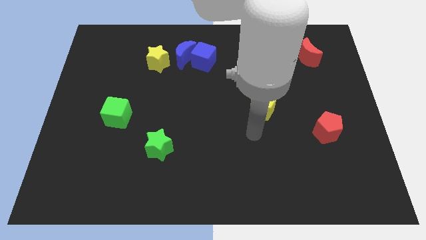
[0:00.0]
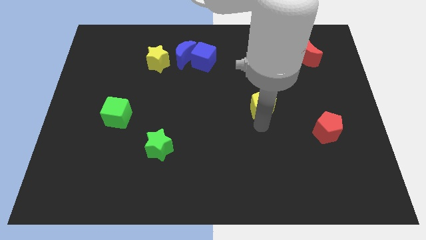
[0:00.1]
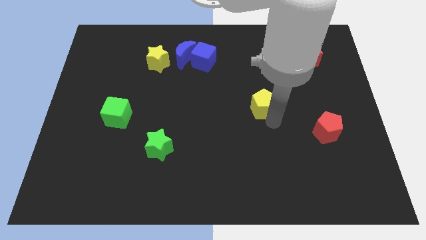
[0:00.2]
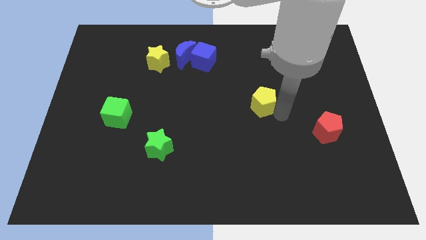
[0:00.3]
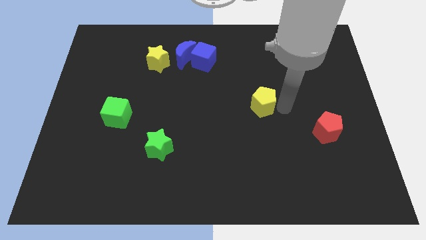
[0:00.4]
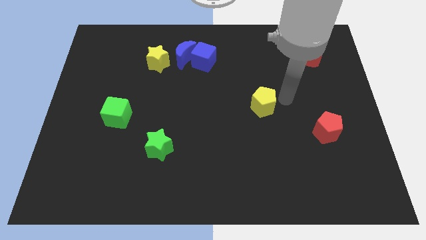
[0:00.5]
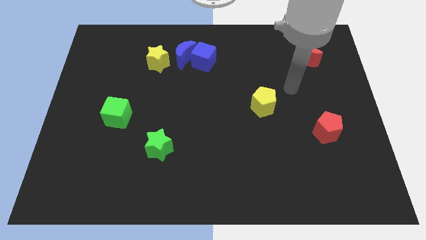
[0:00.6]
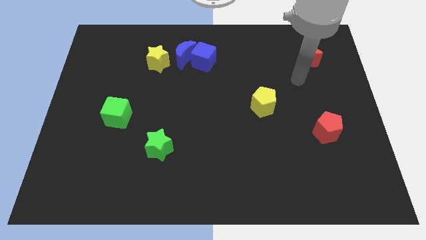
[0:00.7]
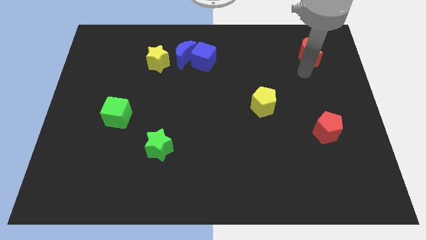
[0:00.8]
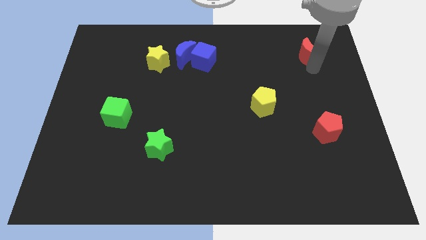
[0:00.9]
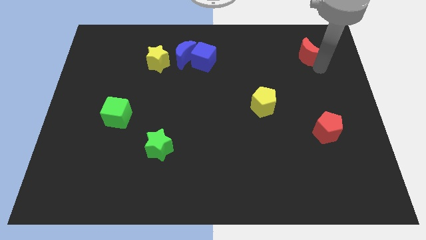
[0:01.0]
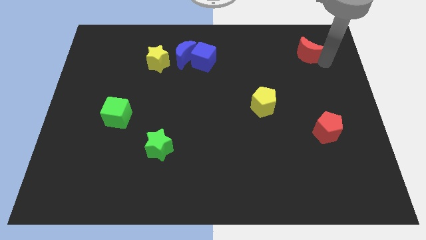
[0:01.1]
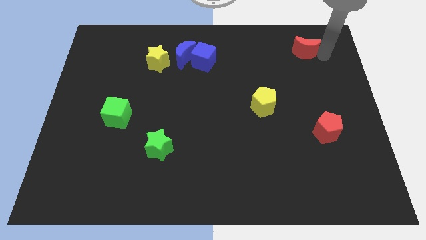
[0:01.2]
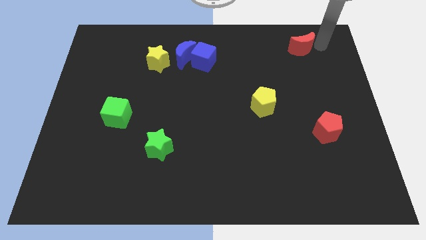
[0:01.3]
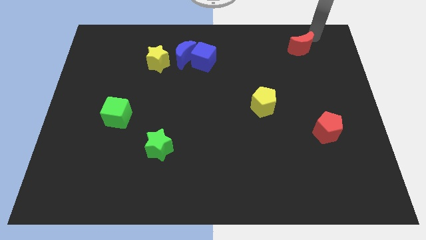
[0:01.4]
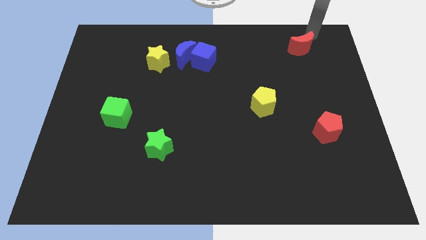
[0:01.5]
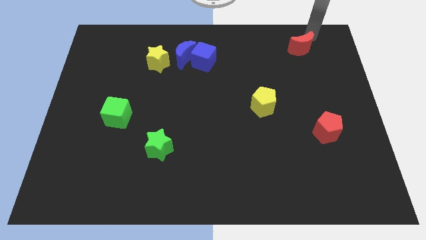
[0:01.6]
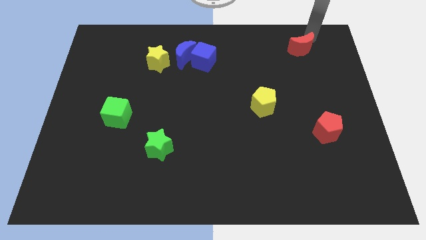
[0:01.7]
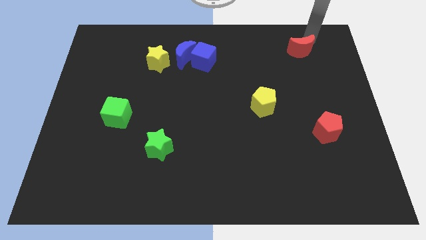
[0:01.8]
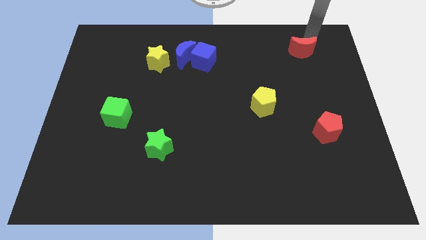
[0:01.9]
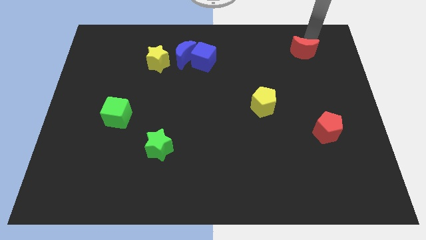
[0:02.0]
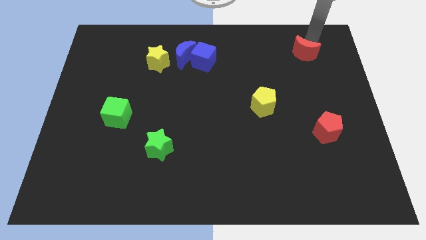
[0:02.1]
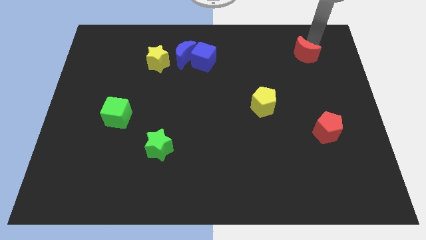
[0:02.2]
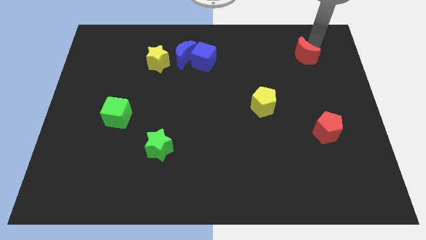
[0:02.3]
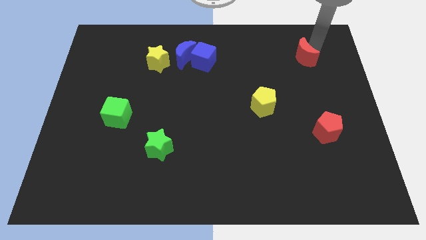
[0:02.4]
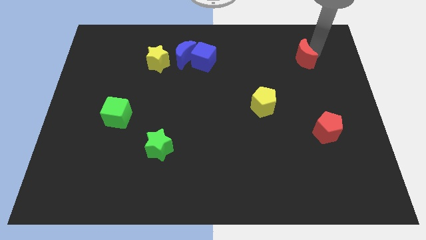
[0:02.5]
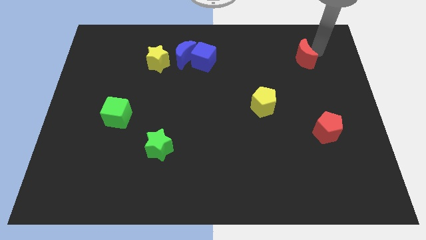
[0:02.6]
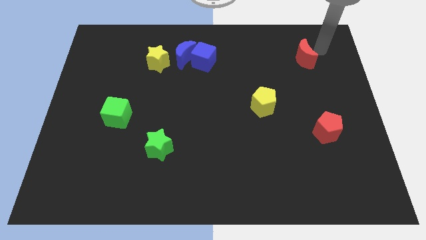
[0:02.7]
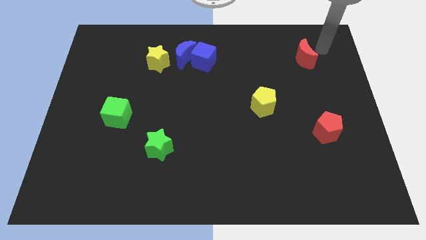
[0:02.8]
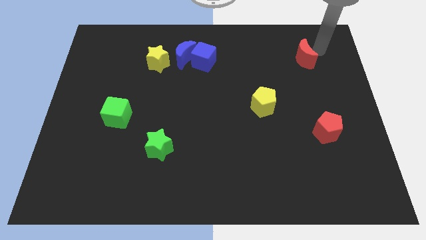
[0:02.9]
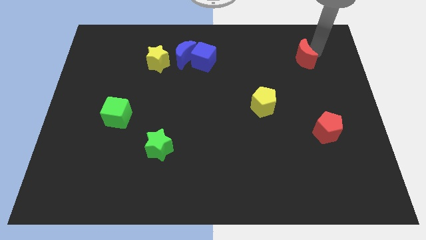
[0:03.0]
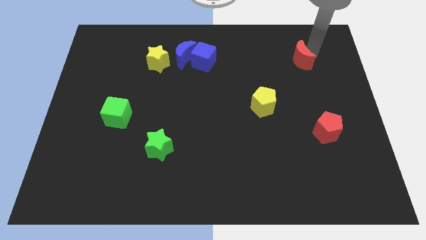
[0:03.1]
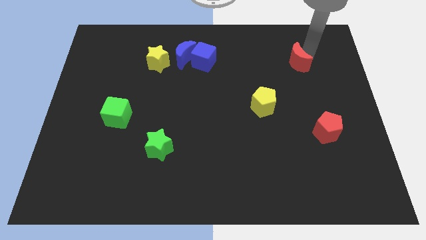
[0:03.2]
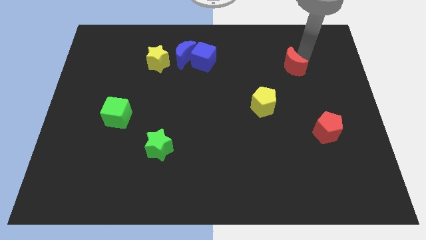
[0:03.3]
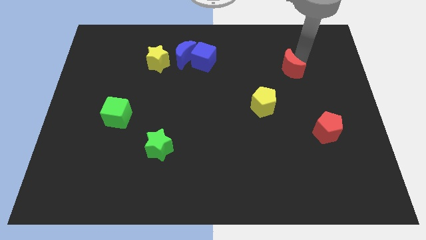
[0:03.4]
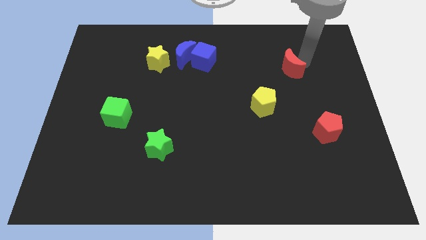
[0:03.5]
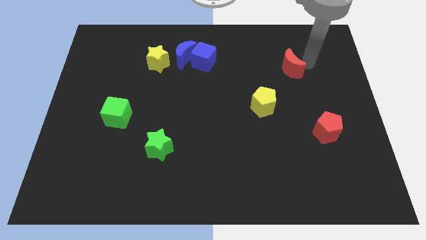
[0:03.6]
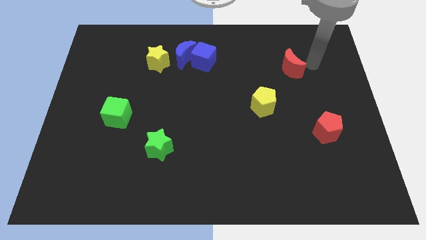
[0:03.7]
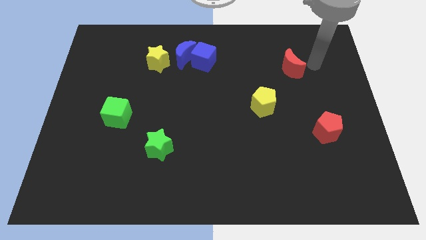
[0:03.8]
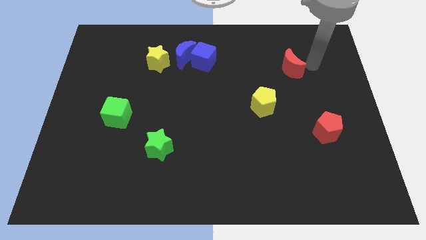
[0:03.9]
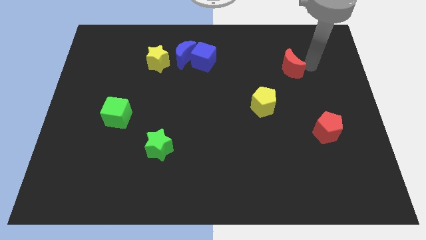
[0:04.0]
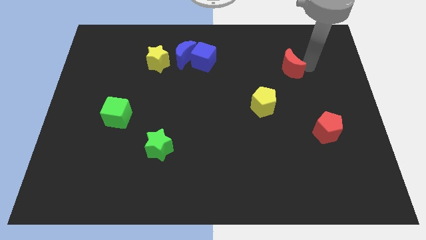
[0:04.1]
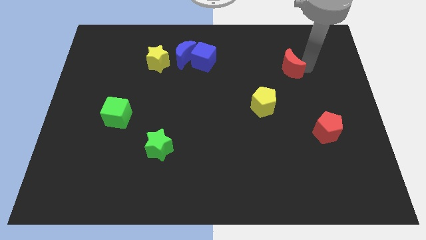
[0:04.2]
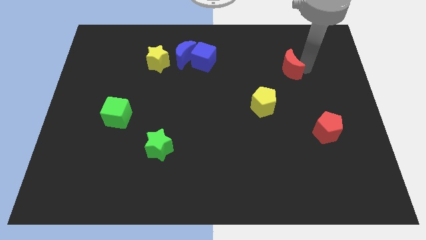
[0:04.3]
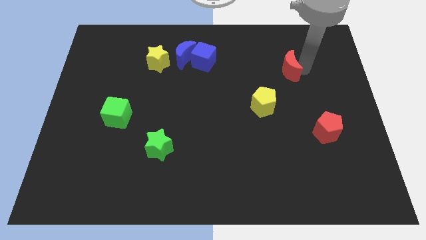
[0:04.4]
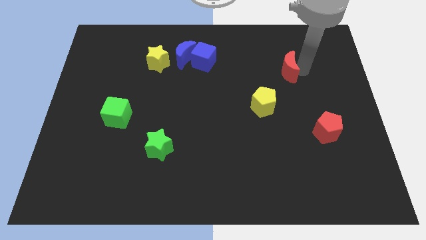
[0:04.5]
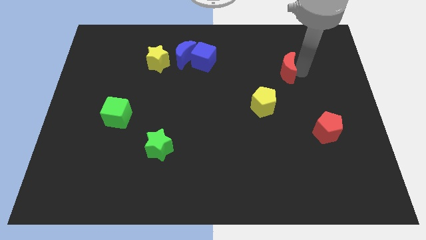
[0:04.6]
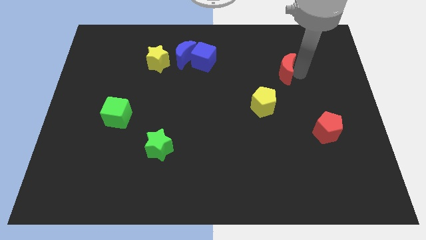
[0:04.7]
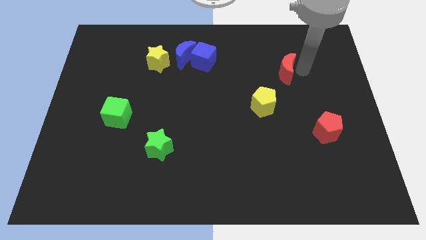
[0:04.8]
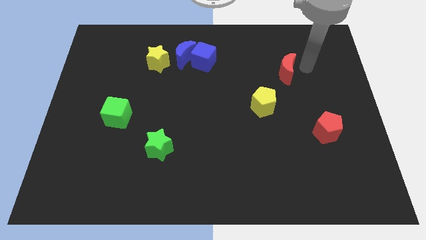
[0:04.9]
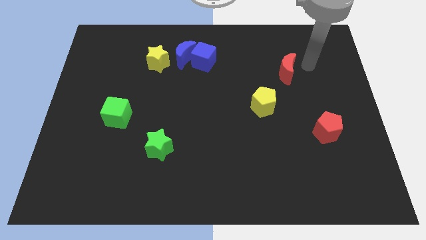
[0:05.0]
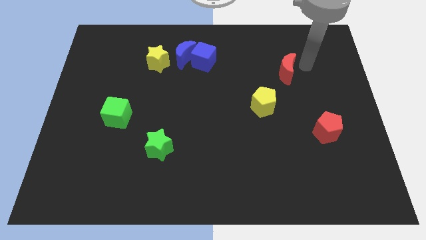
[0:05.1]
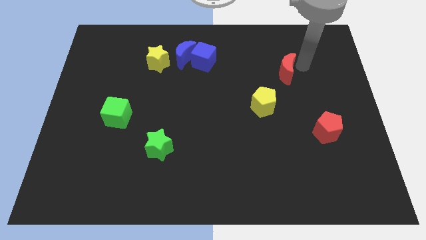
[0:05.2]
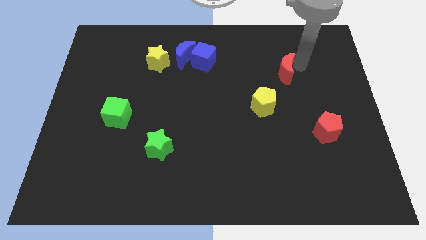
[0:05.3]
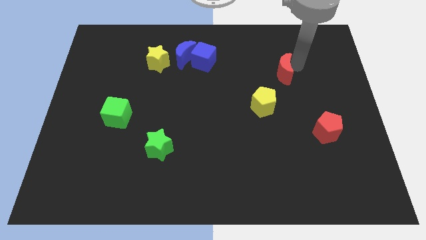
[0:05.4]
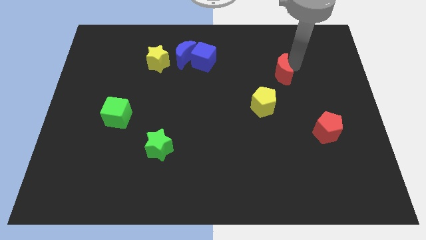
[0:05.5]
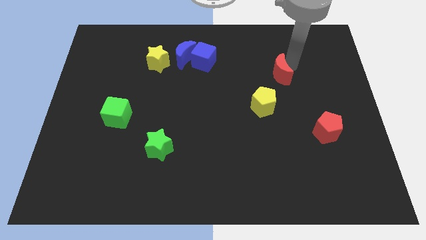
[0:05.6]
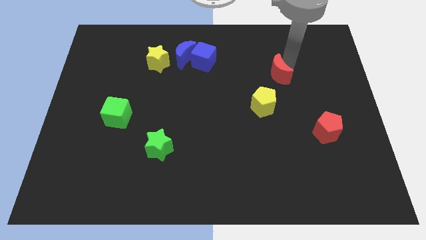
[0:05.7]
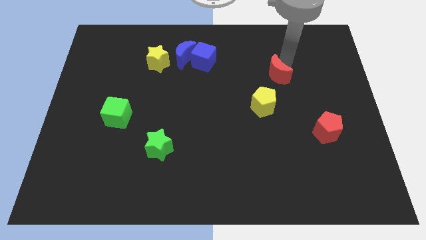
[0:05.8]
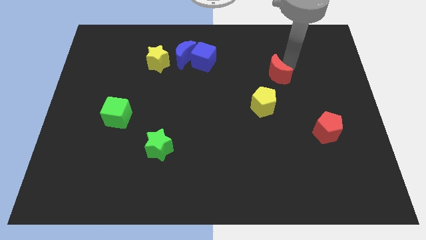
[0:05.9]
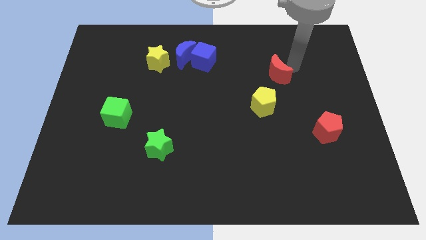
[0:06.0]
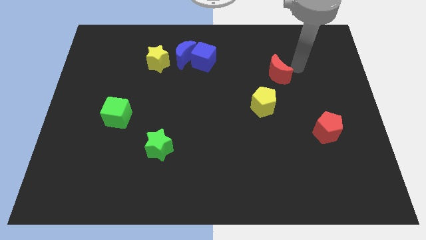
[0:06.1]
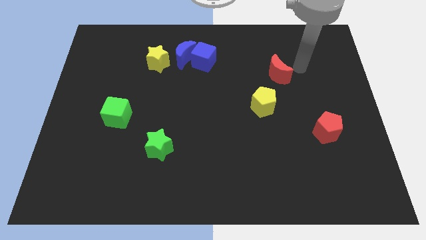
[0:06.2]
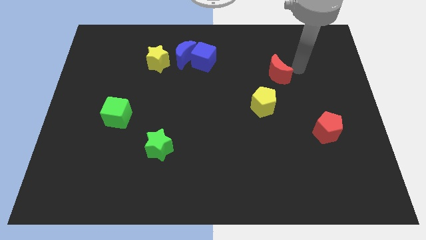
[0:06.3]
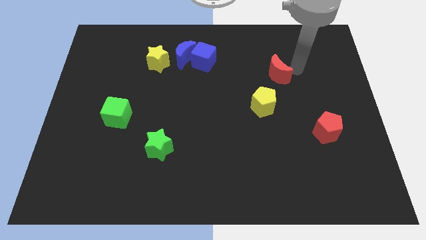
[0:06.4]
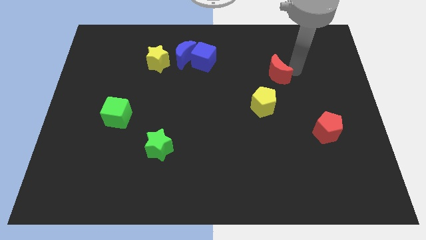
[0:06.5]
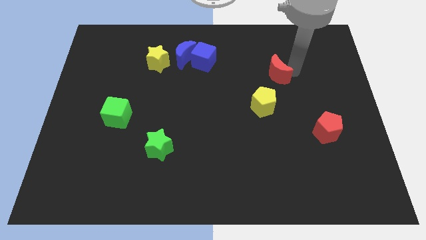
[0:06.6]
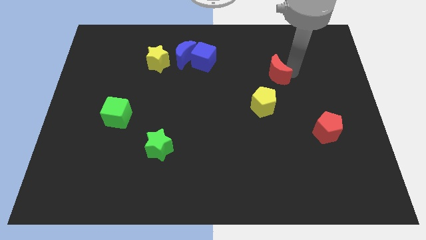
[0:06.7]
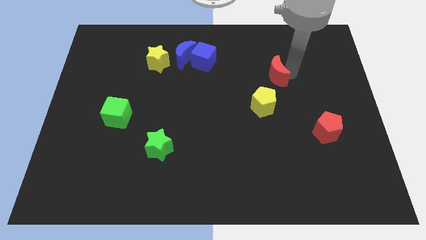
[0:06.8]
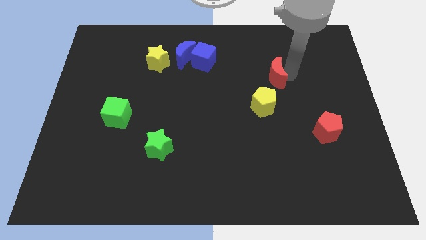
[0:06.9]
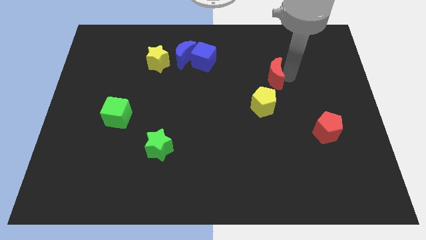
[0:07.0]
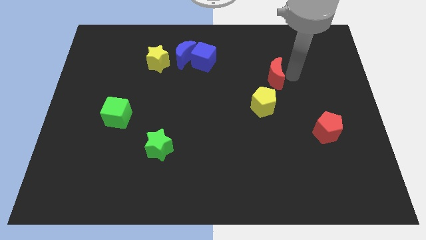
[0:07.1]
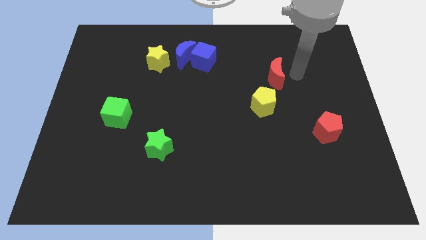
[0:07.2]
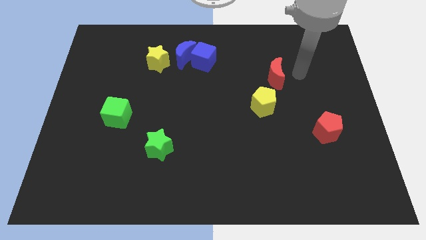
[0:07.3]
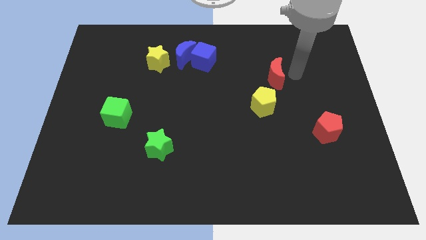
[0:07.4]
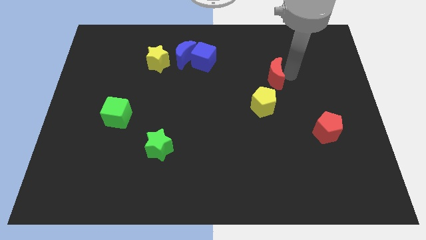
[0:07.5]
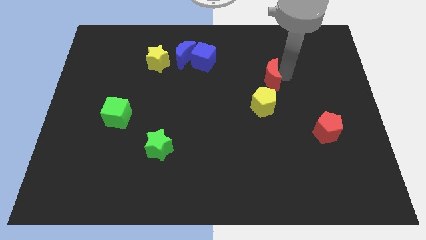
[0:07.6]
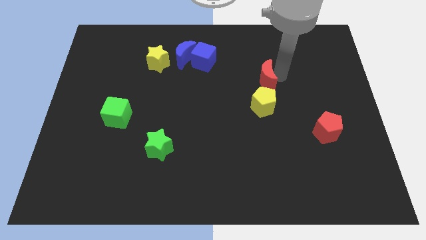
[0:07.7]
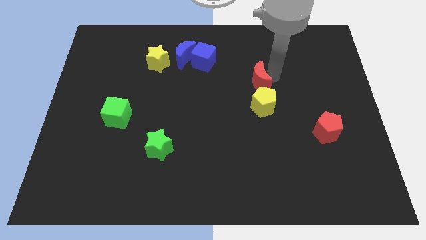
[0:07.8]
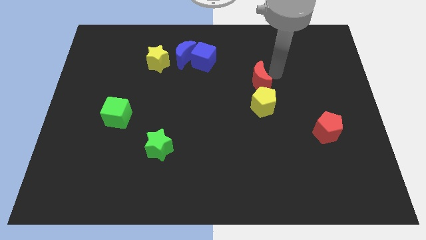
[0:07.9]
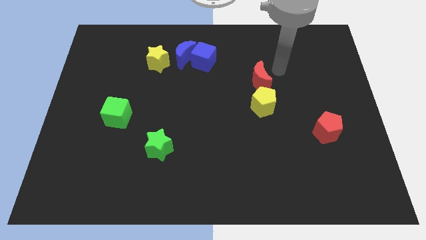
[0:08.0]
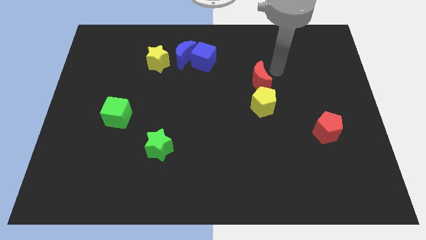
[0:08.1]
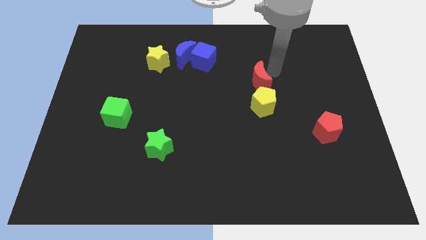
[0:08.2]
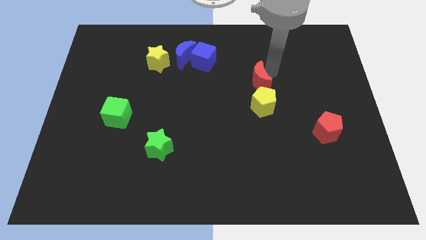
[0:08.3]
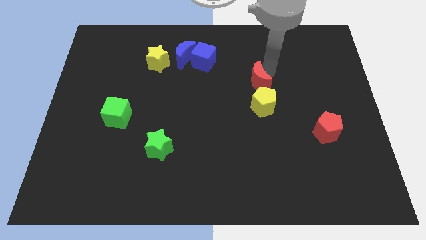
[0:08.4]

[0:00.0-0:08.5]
push the red moon to the center of the board
